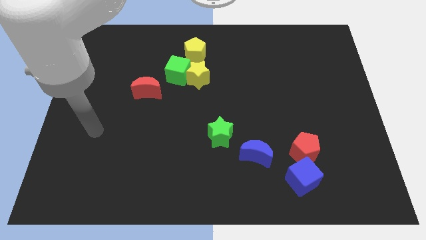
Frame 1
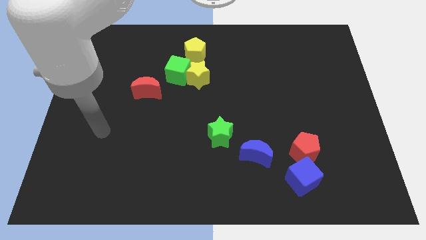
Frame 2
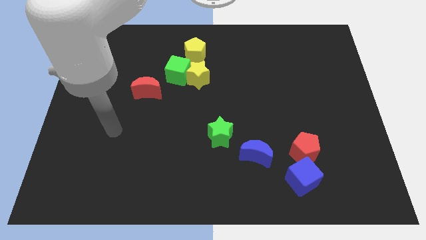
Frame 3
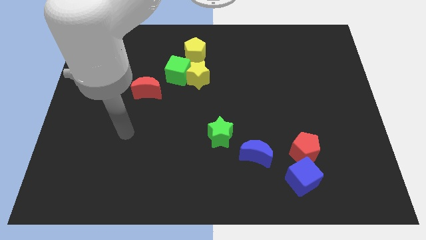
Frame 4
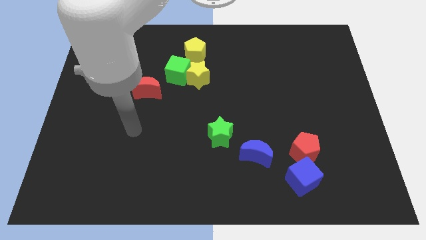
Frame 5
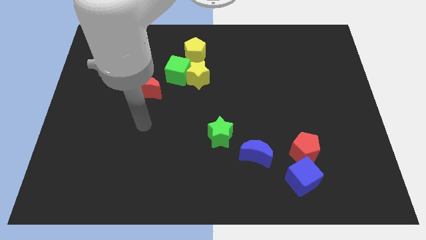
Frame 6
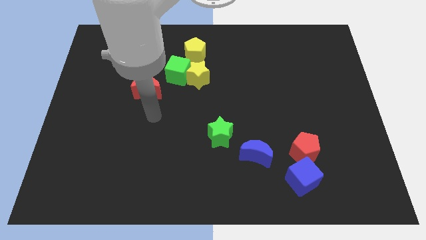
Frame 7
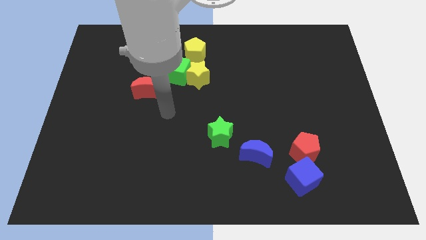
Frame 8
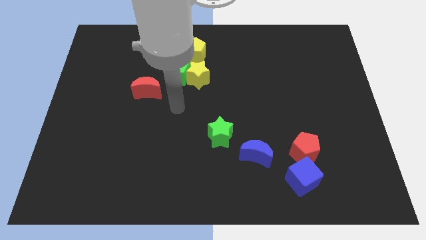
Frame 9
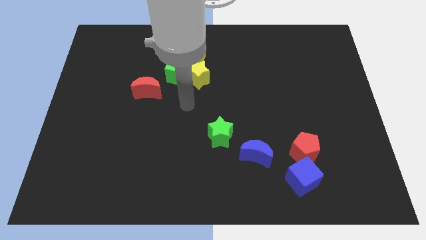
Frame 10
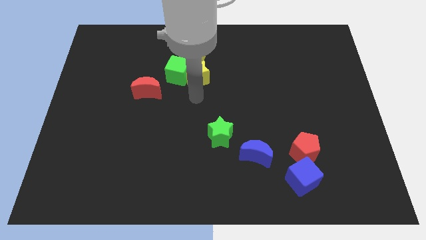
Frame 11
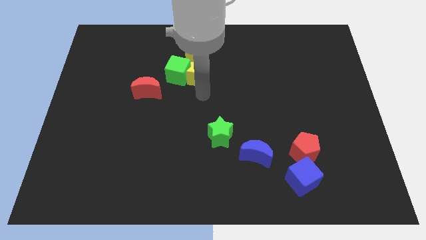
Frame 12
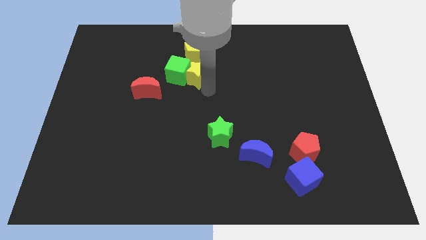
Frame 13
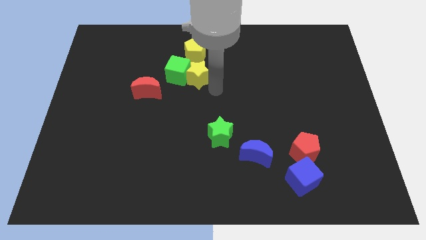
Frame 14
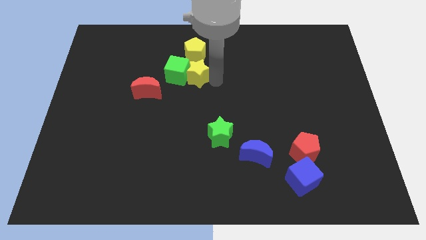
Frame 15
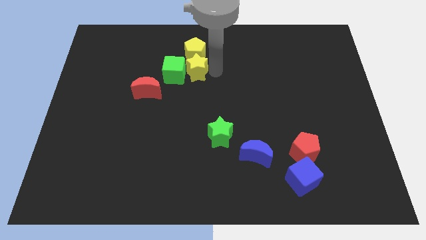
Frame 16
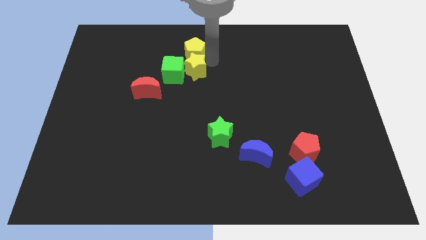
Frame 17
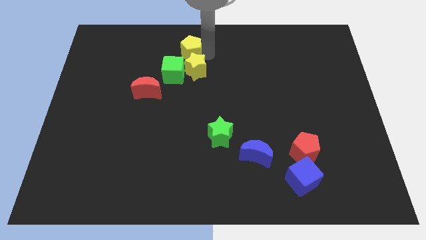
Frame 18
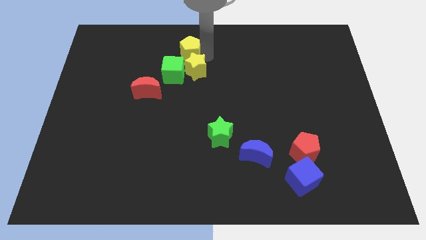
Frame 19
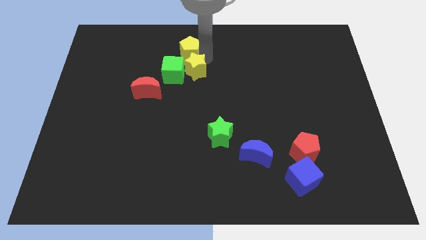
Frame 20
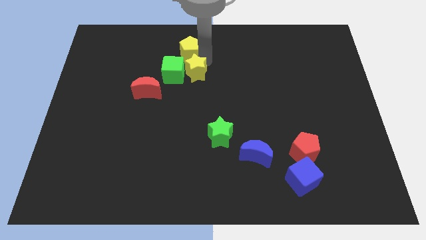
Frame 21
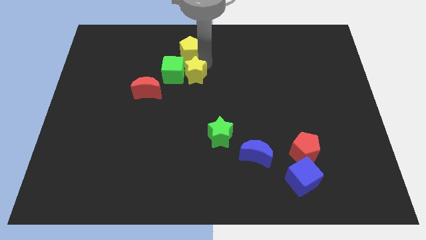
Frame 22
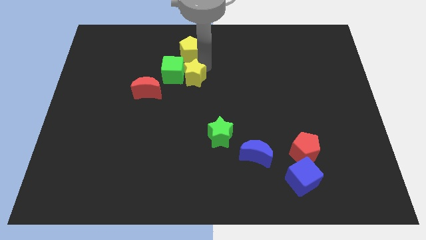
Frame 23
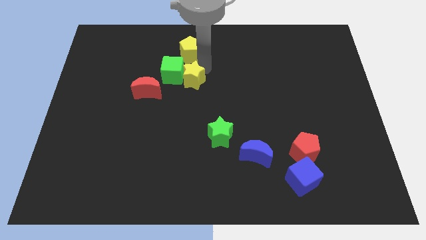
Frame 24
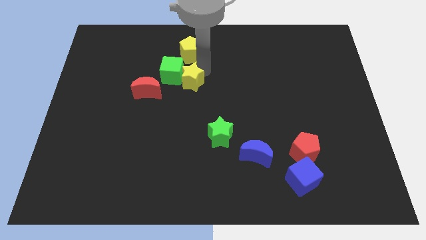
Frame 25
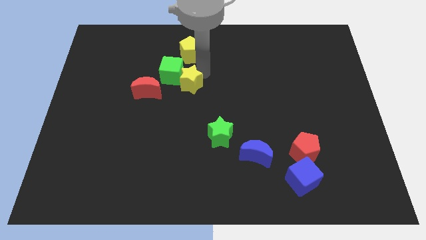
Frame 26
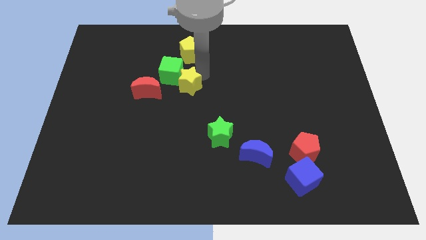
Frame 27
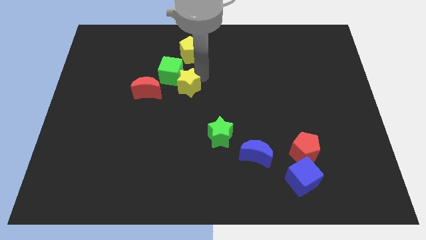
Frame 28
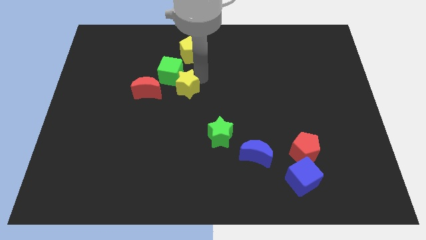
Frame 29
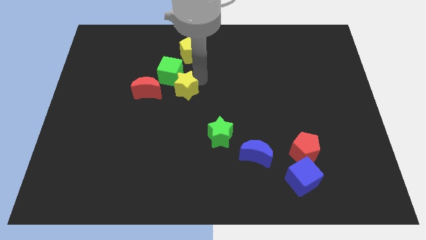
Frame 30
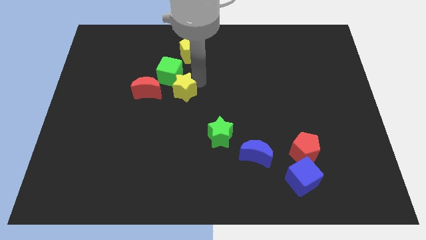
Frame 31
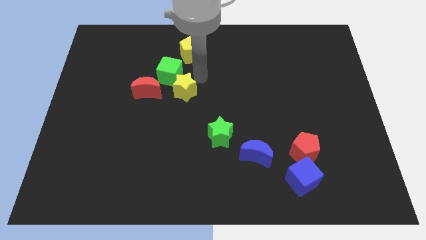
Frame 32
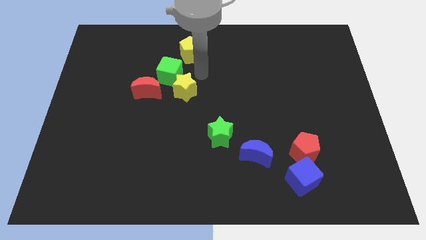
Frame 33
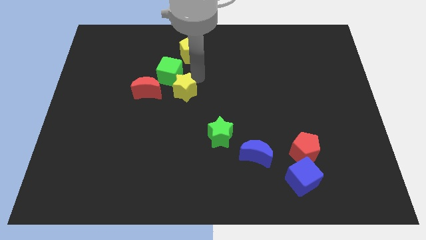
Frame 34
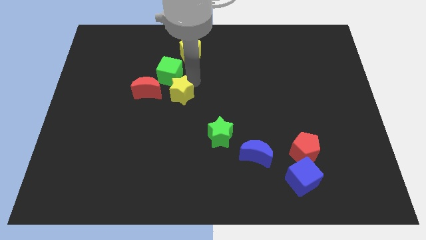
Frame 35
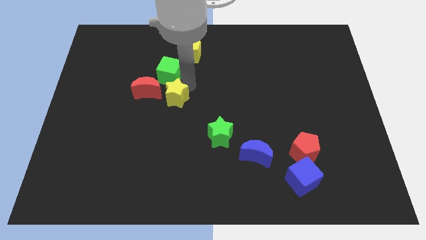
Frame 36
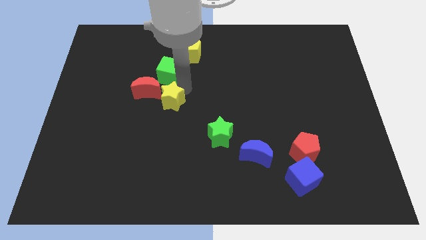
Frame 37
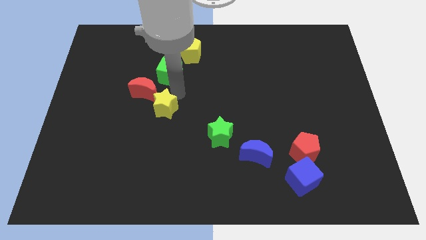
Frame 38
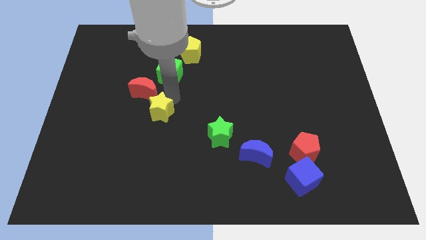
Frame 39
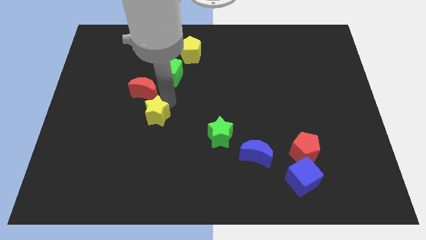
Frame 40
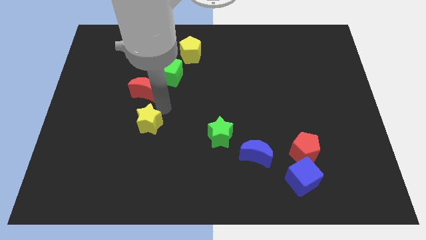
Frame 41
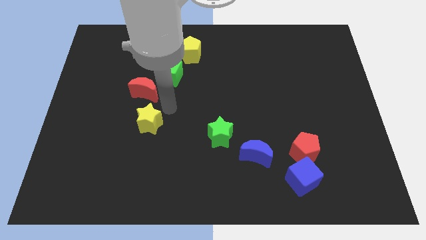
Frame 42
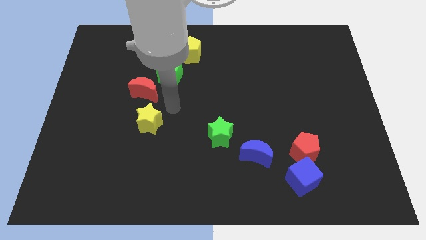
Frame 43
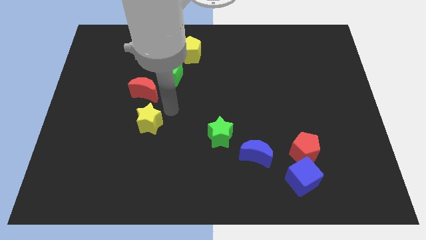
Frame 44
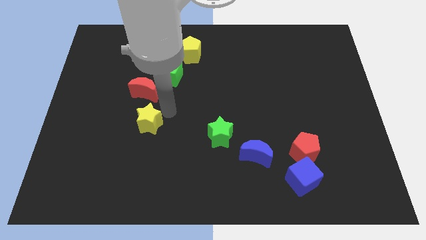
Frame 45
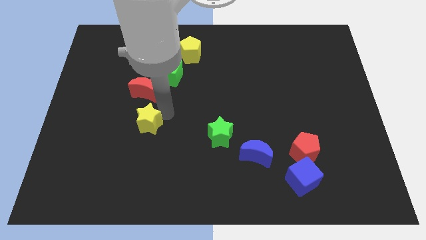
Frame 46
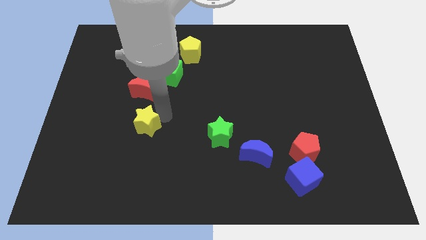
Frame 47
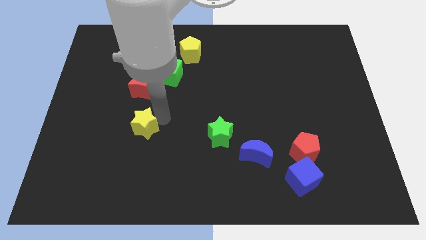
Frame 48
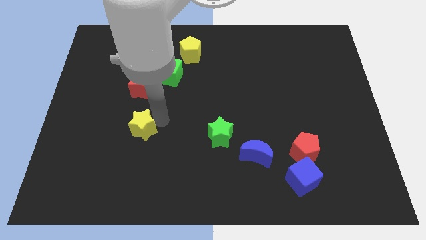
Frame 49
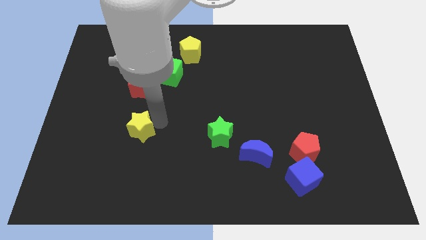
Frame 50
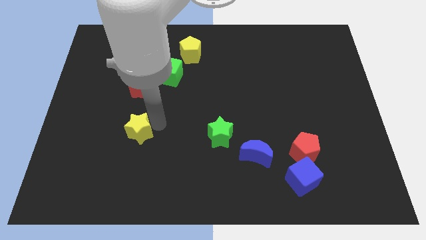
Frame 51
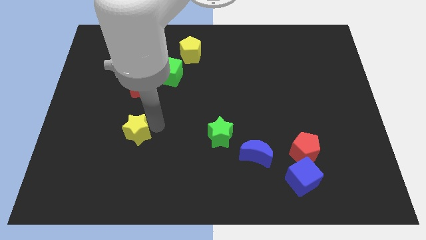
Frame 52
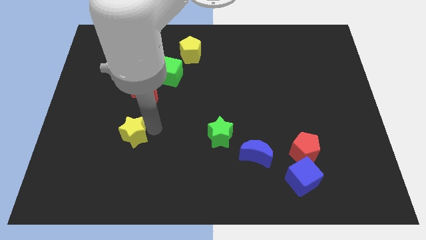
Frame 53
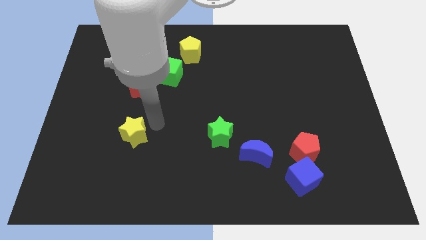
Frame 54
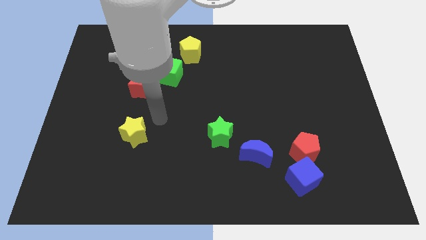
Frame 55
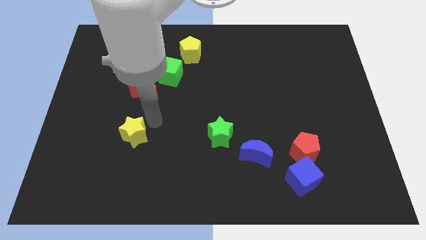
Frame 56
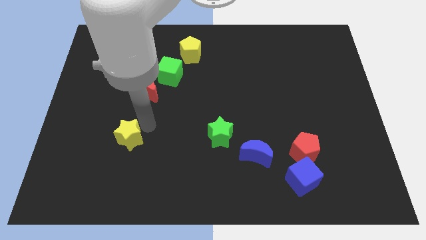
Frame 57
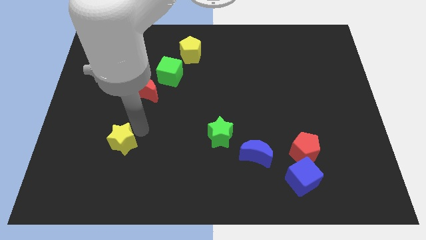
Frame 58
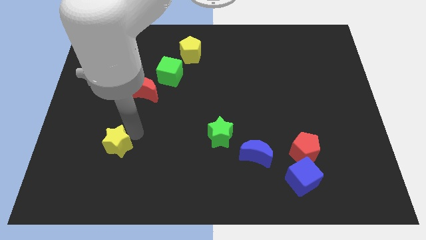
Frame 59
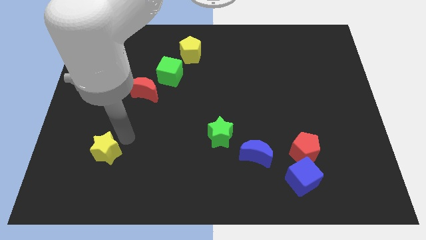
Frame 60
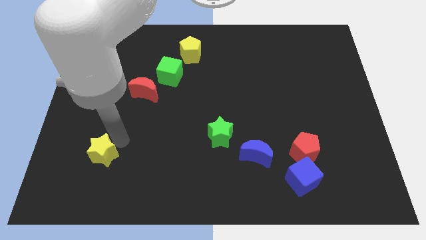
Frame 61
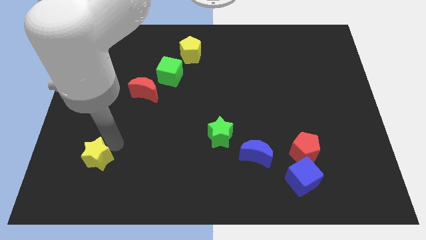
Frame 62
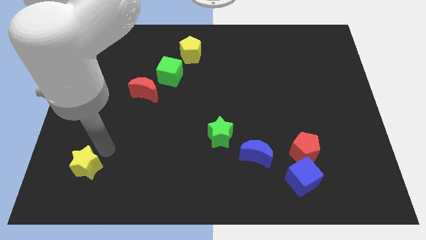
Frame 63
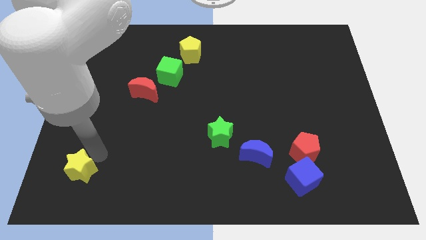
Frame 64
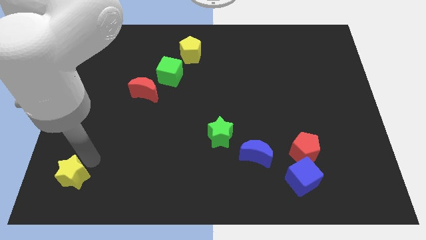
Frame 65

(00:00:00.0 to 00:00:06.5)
push the yellow star to the lower left corner
